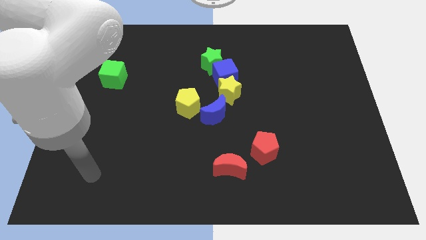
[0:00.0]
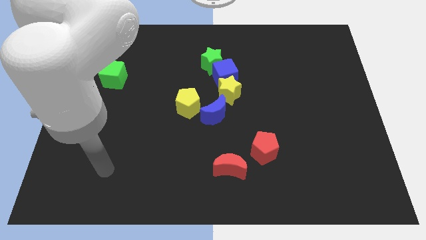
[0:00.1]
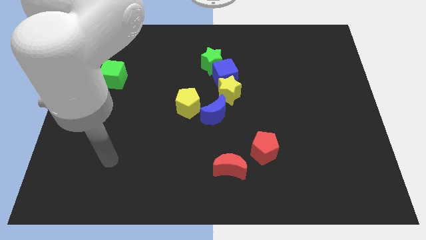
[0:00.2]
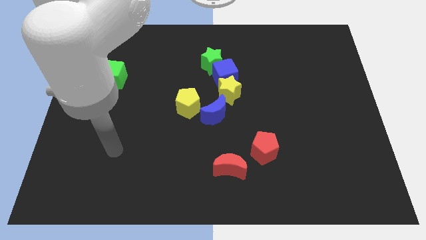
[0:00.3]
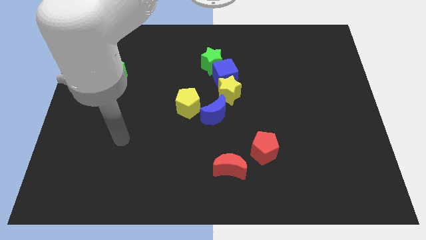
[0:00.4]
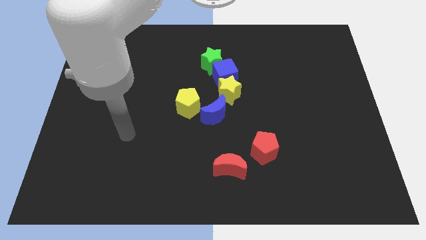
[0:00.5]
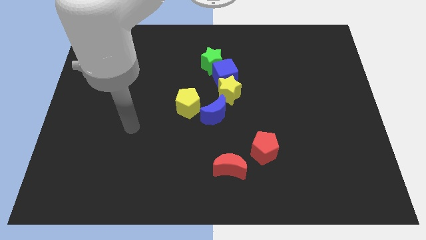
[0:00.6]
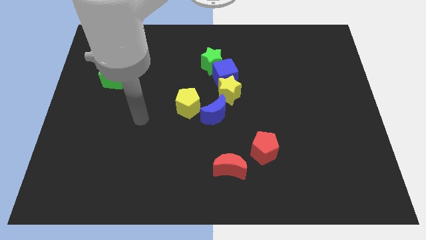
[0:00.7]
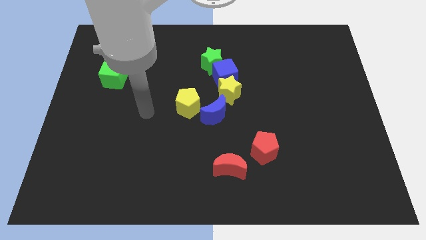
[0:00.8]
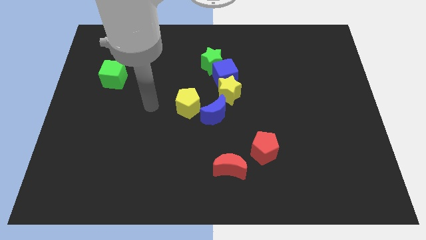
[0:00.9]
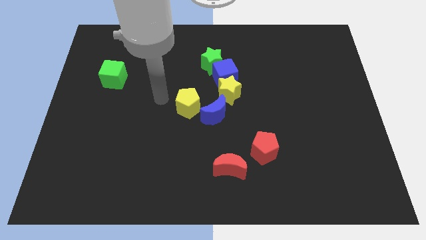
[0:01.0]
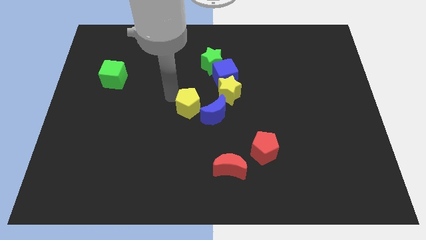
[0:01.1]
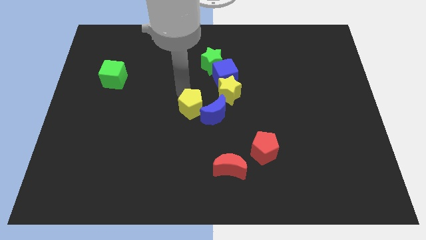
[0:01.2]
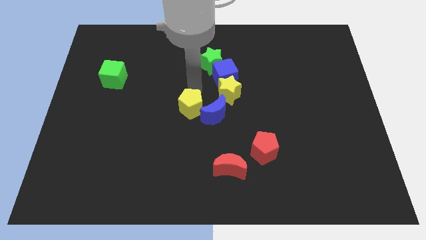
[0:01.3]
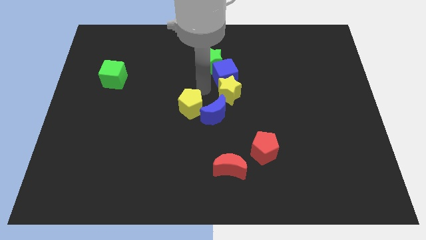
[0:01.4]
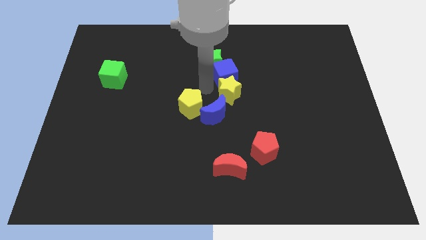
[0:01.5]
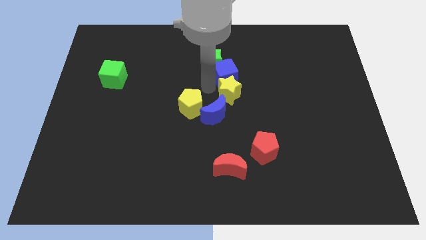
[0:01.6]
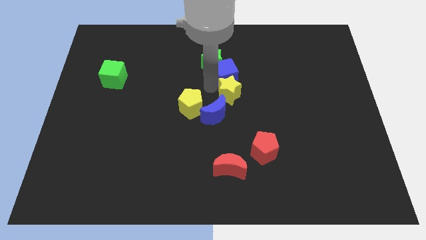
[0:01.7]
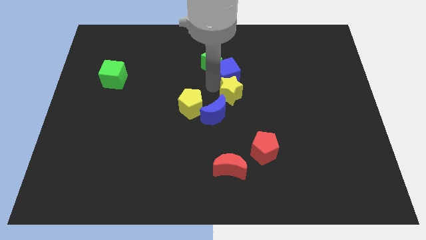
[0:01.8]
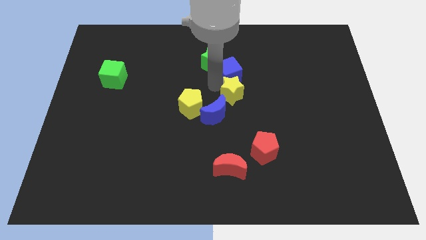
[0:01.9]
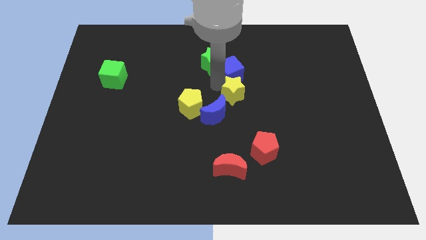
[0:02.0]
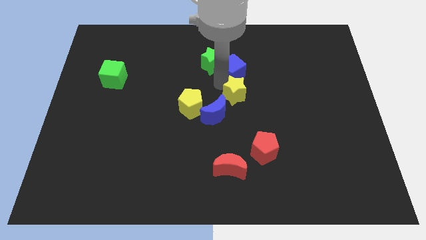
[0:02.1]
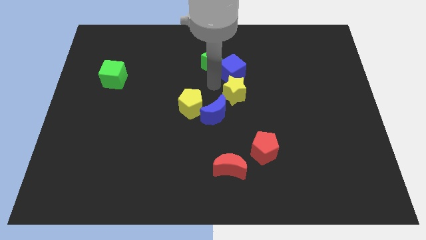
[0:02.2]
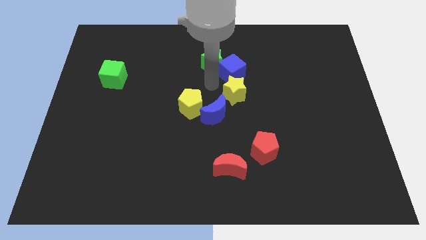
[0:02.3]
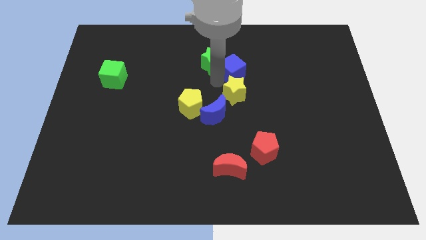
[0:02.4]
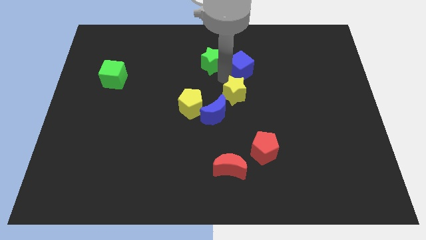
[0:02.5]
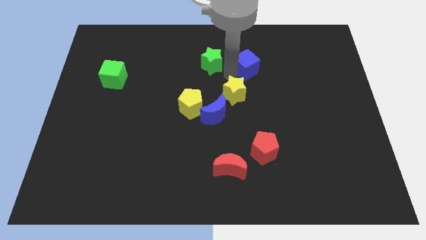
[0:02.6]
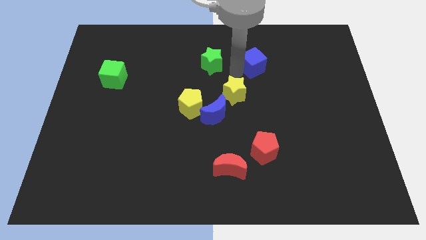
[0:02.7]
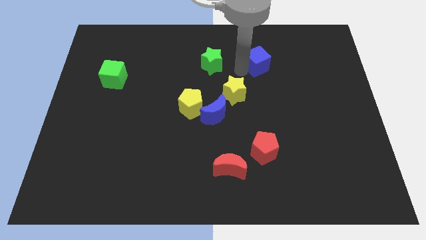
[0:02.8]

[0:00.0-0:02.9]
separate the blue cube from the yellow star and green star

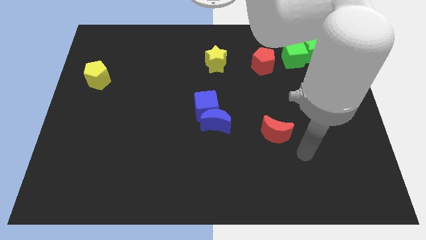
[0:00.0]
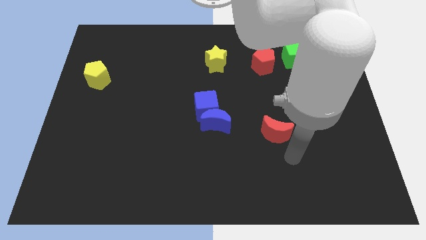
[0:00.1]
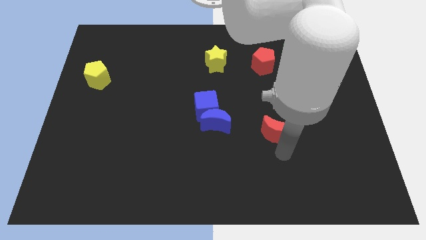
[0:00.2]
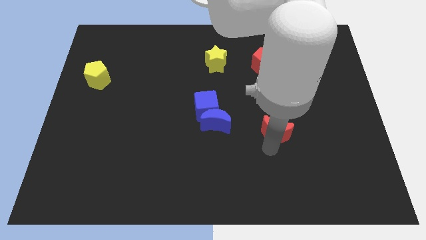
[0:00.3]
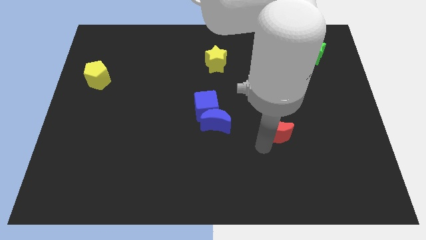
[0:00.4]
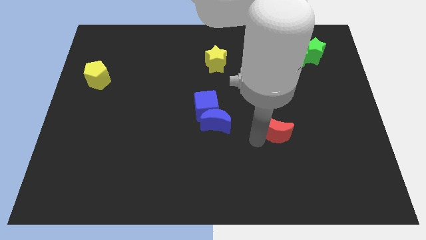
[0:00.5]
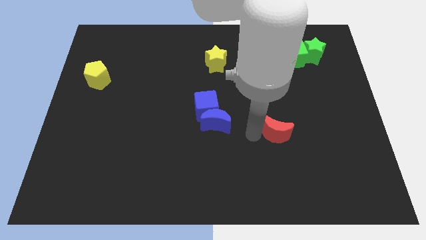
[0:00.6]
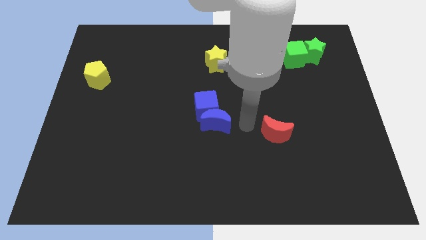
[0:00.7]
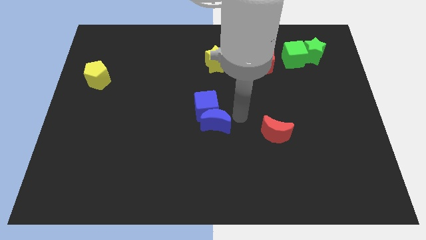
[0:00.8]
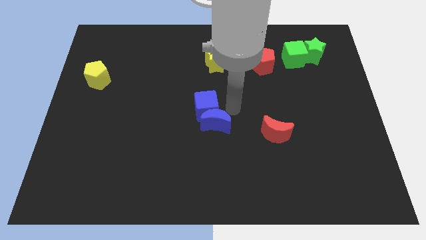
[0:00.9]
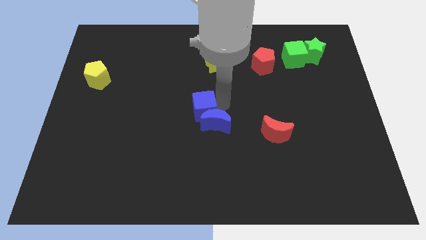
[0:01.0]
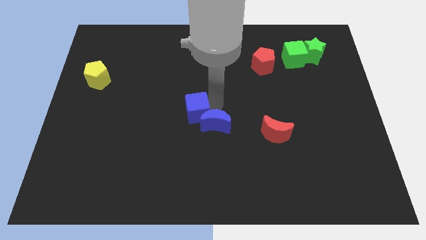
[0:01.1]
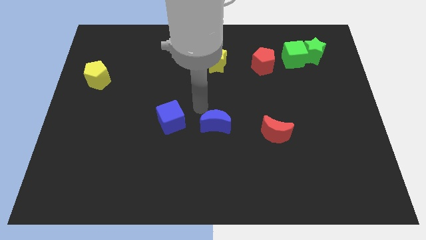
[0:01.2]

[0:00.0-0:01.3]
pull the blue moon apart from the blue cube

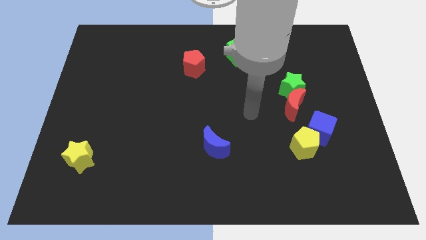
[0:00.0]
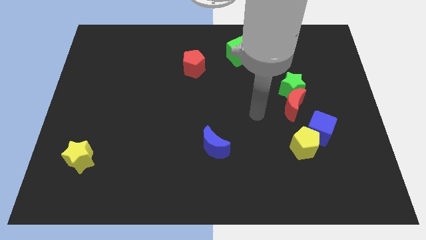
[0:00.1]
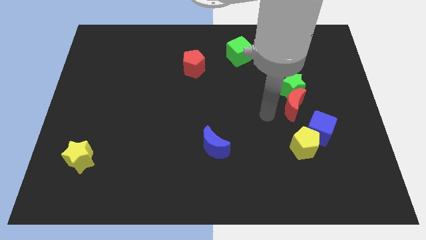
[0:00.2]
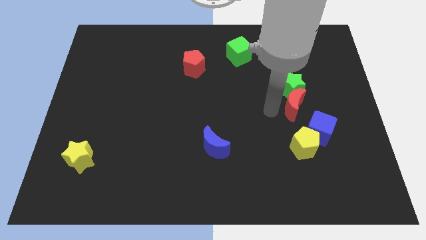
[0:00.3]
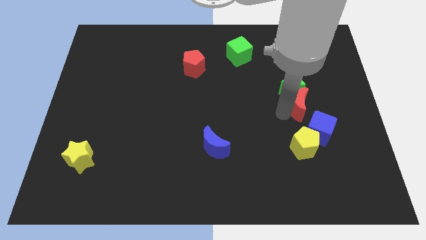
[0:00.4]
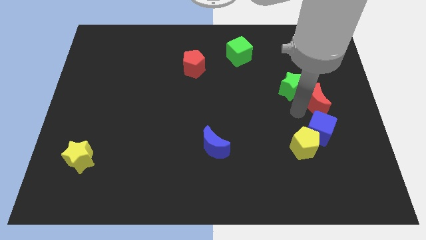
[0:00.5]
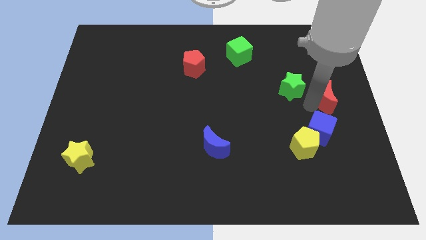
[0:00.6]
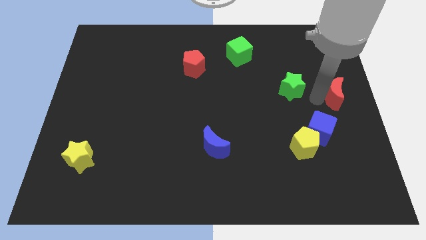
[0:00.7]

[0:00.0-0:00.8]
move the green star away from the red moon

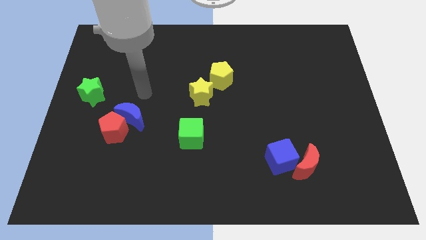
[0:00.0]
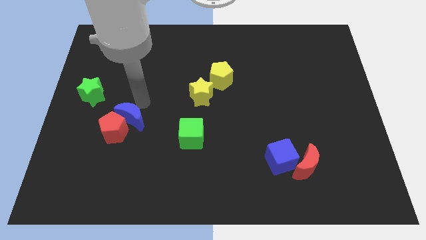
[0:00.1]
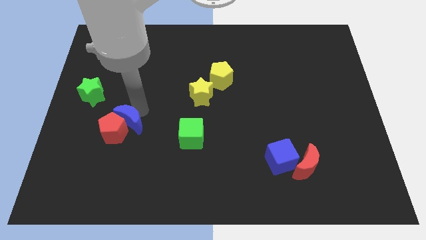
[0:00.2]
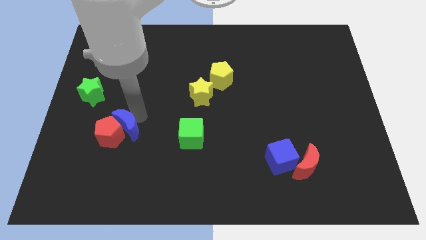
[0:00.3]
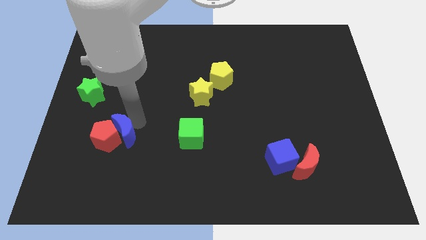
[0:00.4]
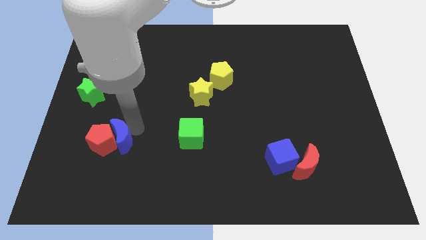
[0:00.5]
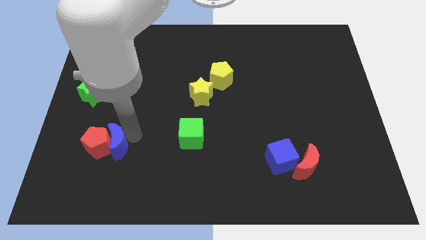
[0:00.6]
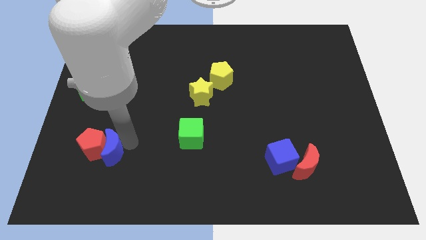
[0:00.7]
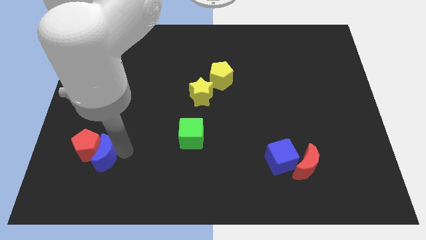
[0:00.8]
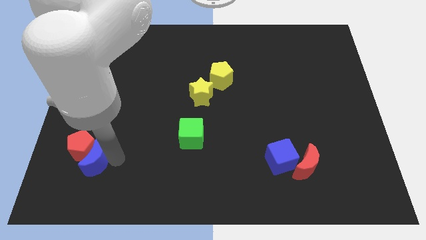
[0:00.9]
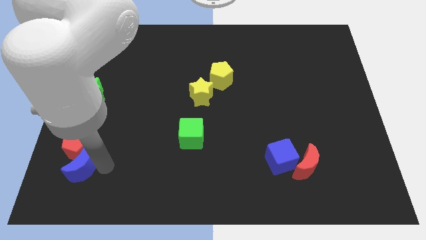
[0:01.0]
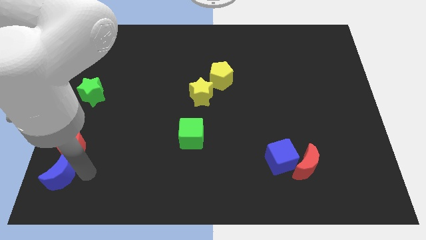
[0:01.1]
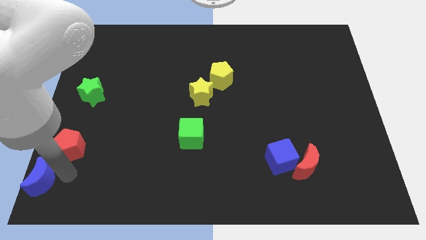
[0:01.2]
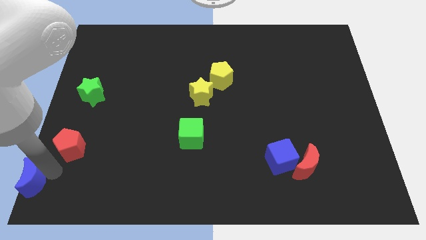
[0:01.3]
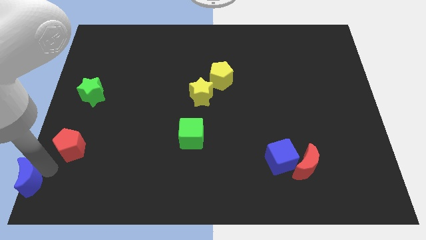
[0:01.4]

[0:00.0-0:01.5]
move the red pentagon away from the blue moon

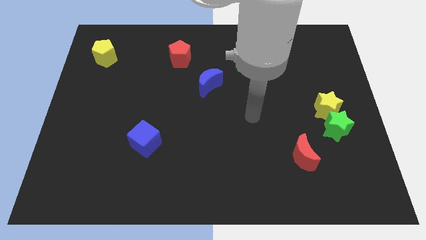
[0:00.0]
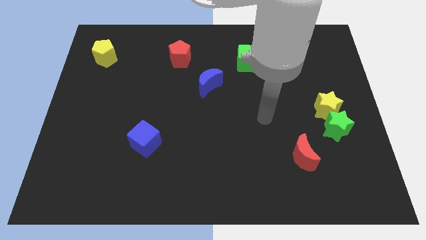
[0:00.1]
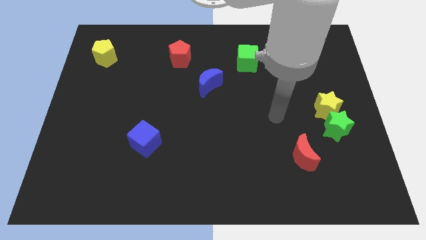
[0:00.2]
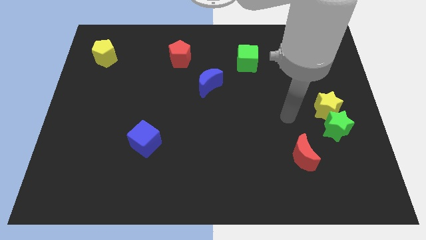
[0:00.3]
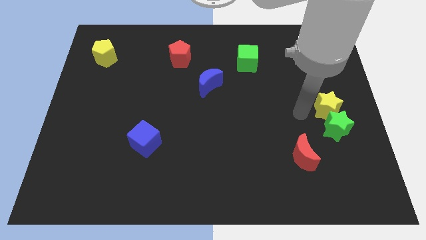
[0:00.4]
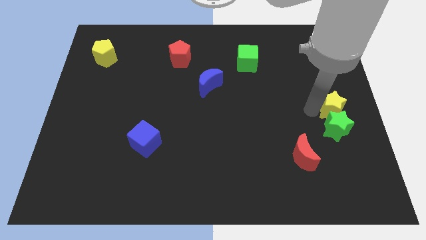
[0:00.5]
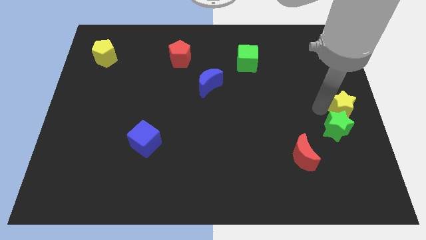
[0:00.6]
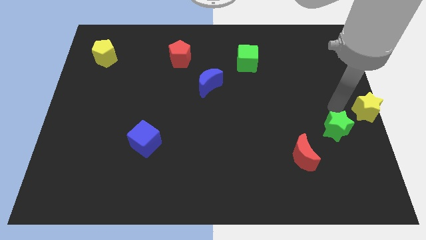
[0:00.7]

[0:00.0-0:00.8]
pull the green star apart from the yellow star

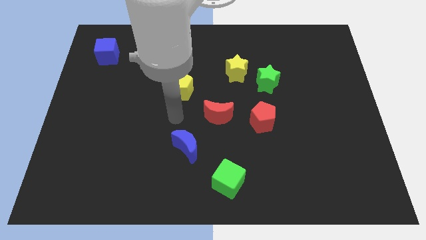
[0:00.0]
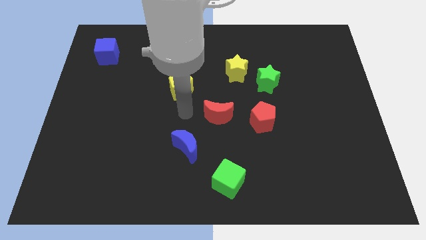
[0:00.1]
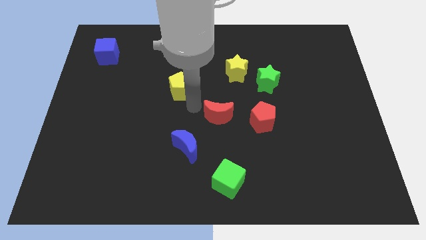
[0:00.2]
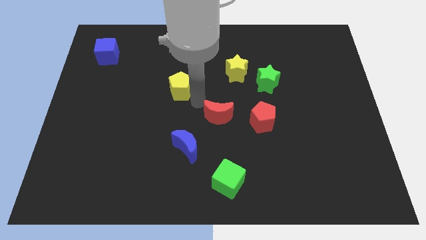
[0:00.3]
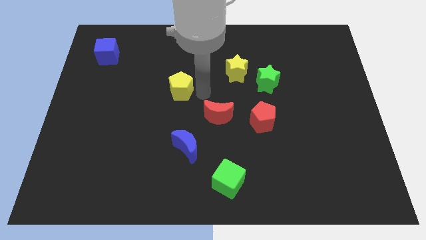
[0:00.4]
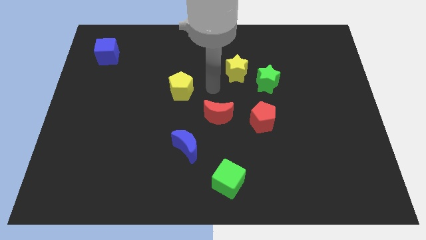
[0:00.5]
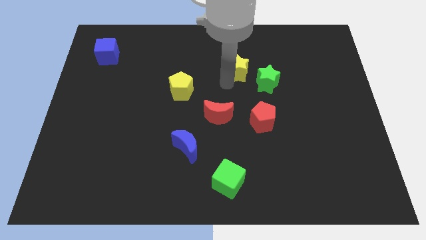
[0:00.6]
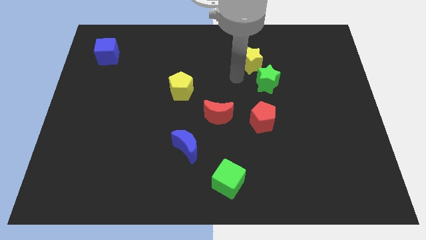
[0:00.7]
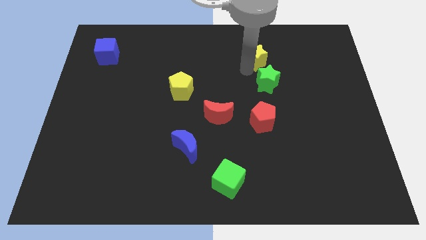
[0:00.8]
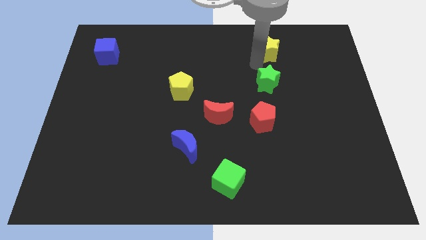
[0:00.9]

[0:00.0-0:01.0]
move the green star away from the yellow star

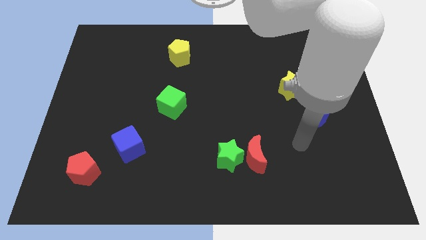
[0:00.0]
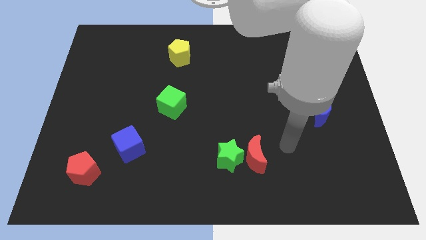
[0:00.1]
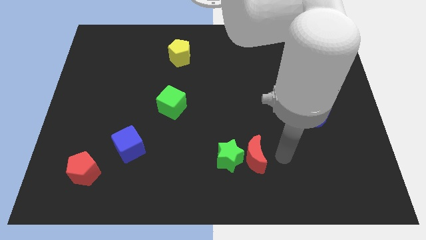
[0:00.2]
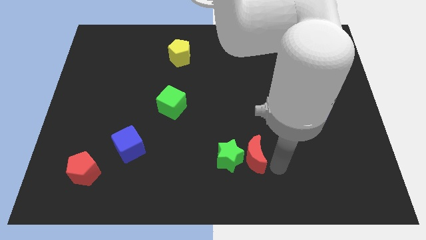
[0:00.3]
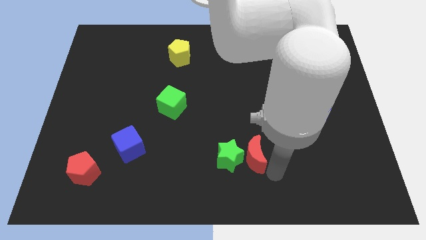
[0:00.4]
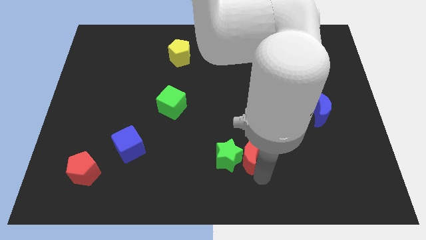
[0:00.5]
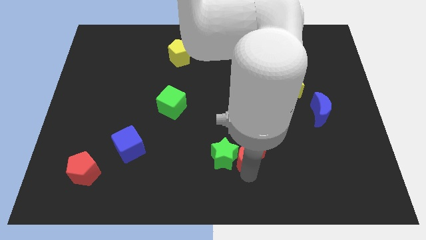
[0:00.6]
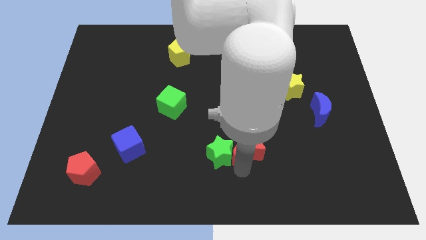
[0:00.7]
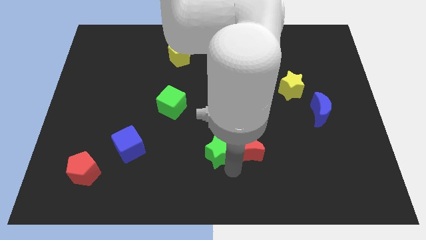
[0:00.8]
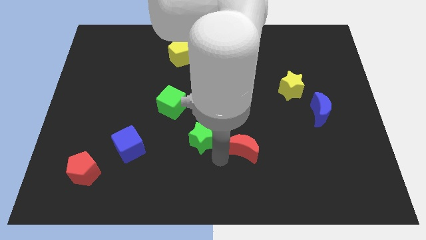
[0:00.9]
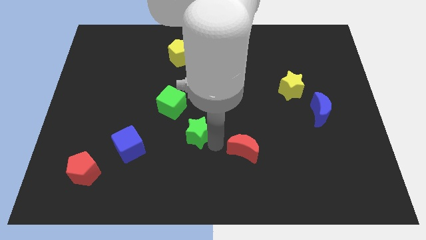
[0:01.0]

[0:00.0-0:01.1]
move the red moon away from the green star

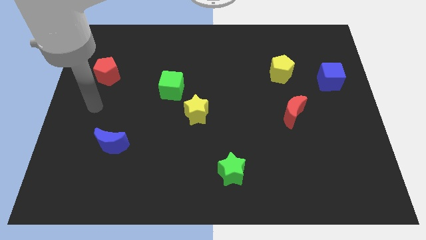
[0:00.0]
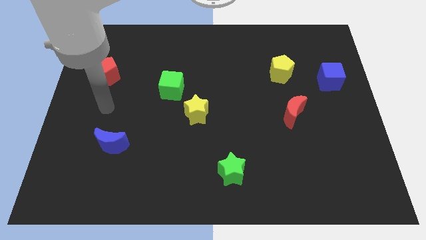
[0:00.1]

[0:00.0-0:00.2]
pull the green cube apart from the yellow star
